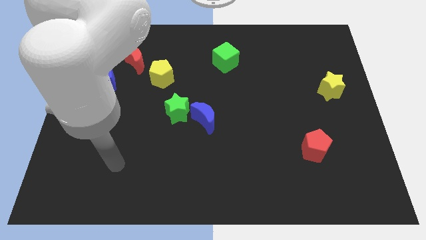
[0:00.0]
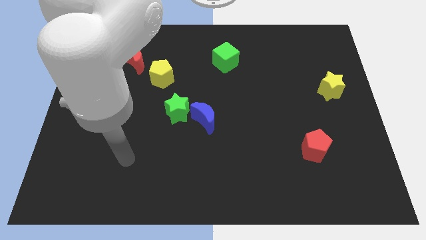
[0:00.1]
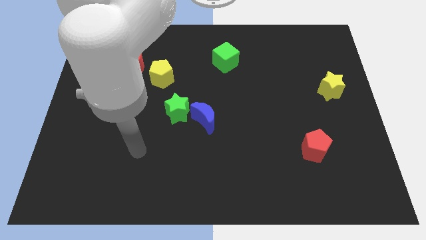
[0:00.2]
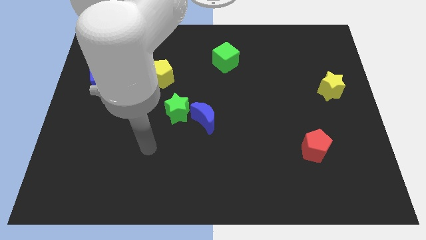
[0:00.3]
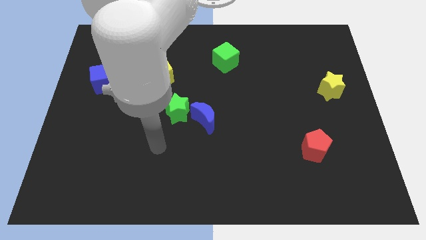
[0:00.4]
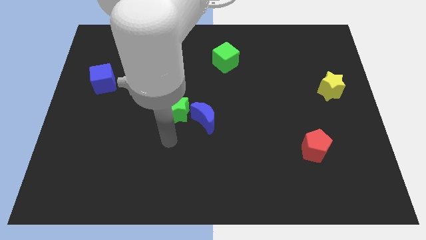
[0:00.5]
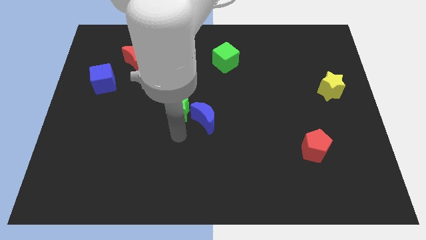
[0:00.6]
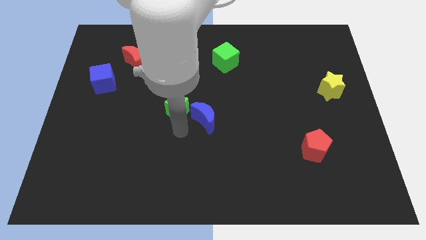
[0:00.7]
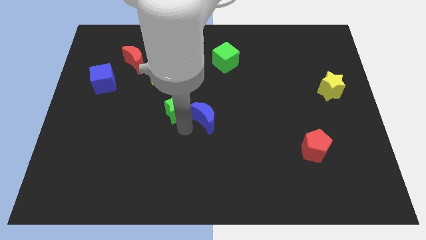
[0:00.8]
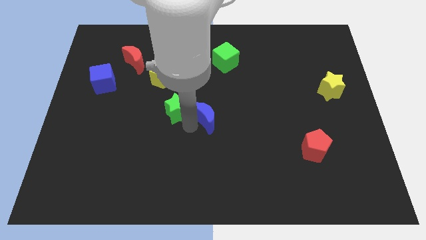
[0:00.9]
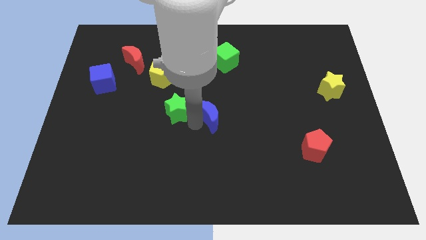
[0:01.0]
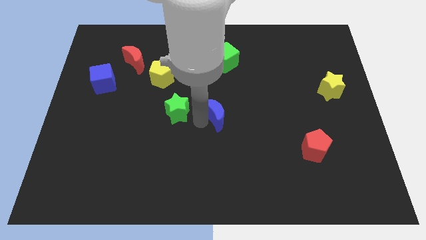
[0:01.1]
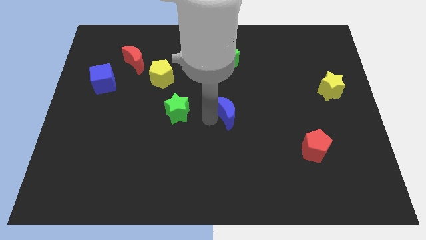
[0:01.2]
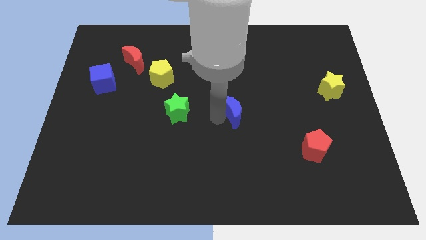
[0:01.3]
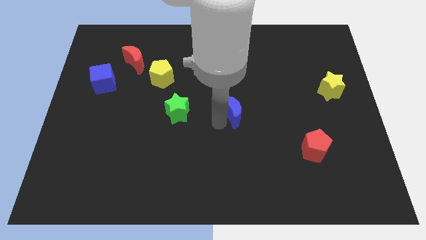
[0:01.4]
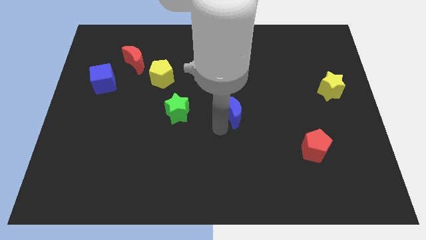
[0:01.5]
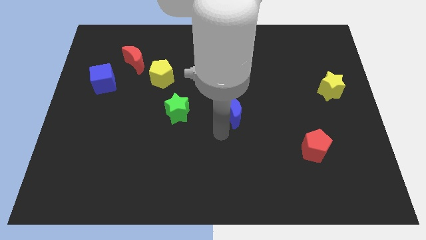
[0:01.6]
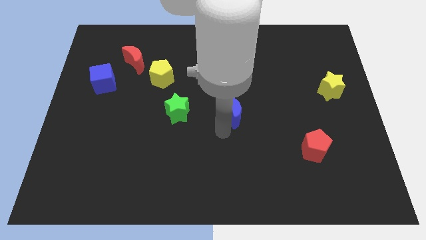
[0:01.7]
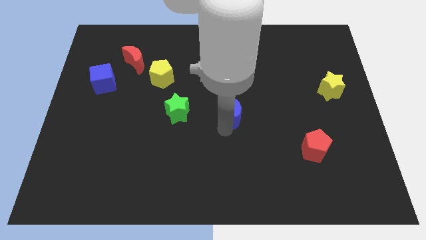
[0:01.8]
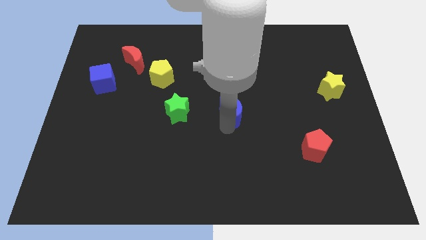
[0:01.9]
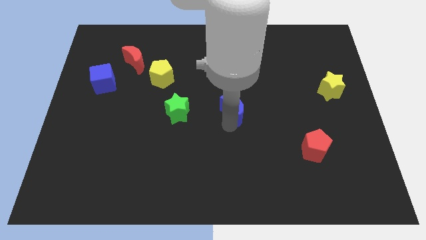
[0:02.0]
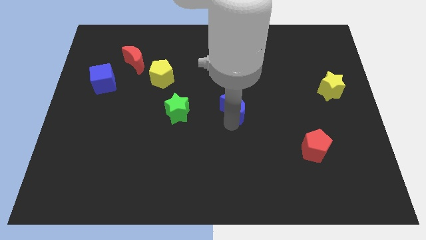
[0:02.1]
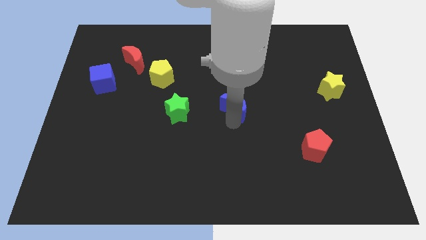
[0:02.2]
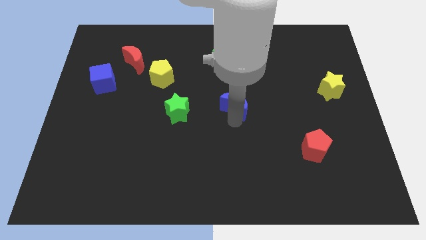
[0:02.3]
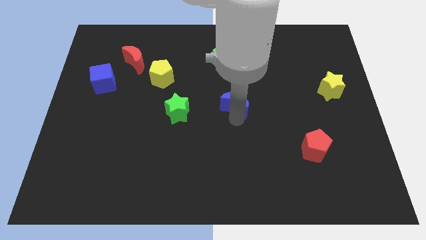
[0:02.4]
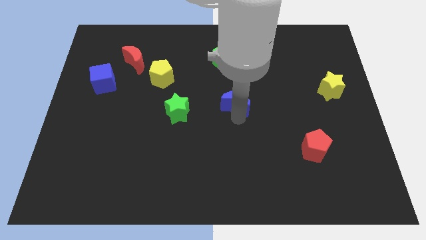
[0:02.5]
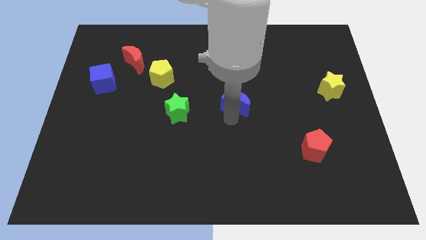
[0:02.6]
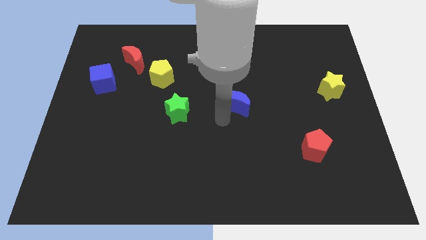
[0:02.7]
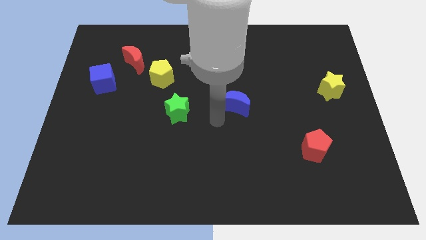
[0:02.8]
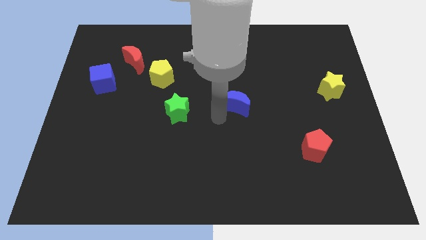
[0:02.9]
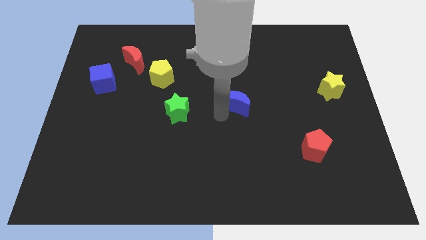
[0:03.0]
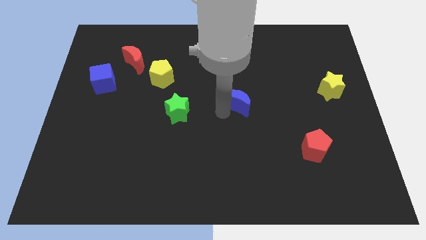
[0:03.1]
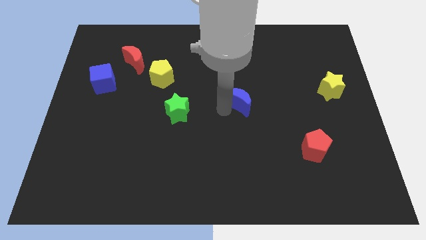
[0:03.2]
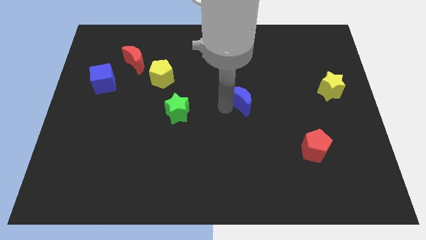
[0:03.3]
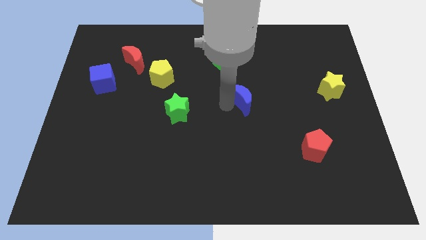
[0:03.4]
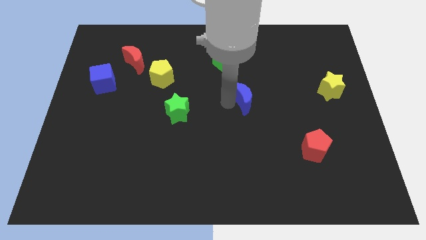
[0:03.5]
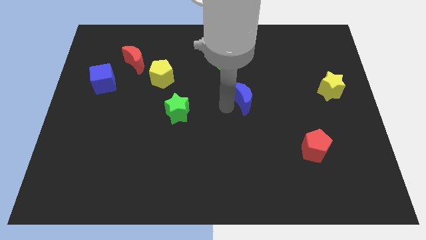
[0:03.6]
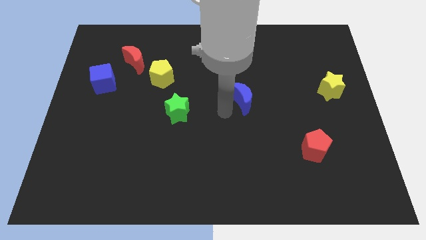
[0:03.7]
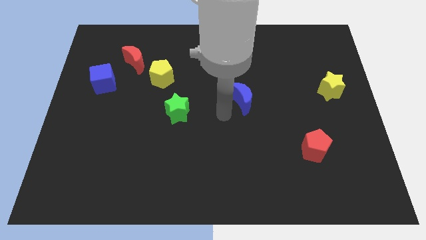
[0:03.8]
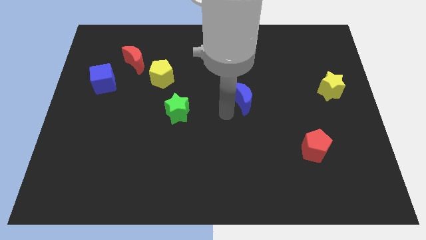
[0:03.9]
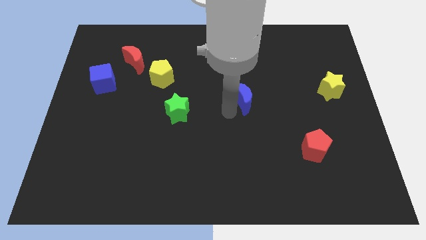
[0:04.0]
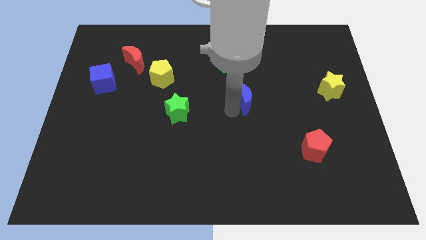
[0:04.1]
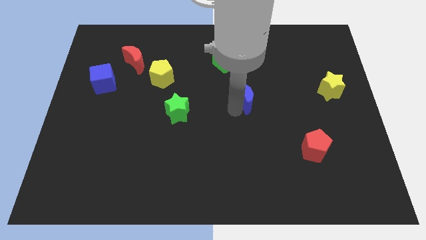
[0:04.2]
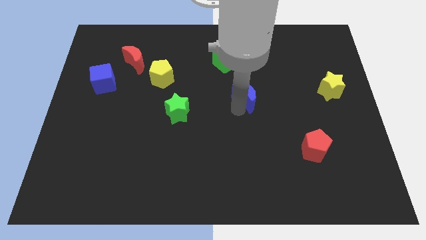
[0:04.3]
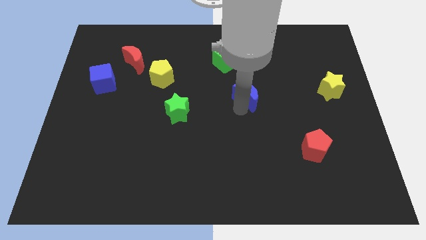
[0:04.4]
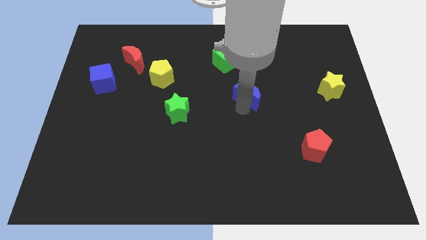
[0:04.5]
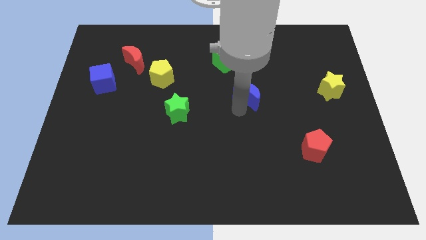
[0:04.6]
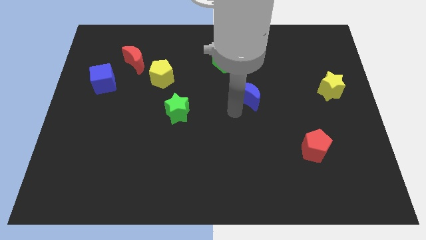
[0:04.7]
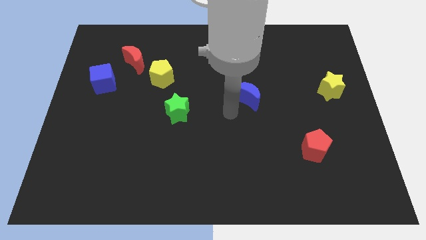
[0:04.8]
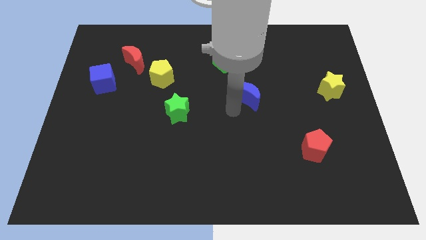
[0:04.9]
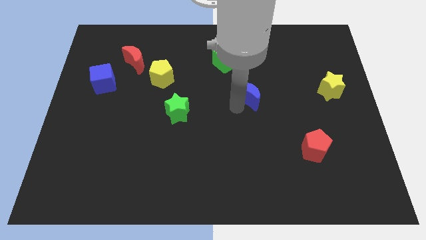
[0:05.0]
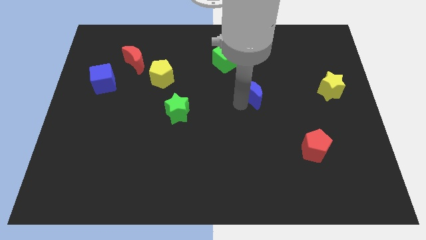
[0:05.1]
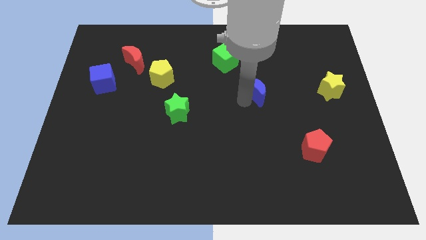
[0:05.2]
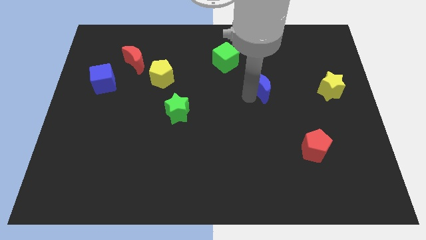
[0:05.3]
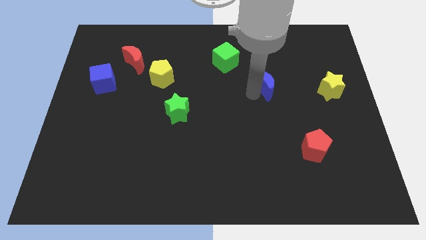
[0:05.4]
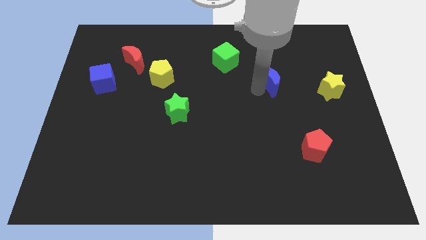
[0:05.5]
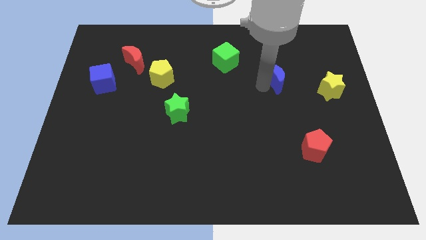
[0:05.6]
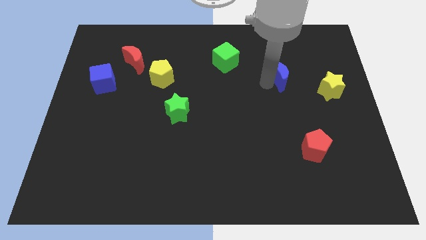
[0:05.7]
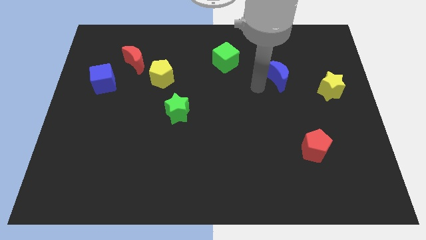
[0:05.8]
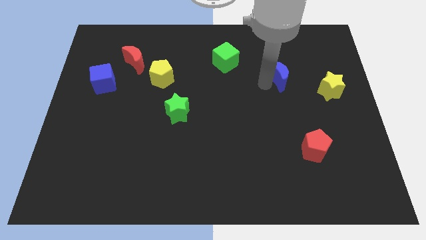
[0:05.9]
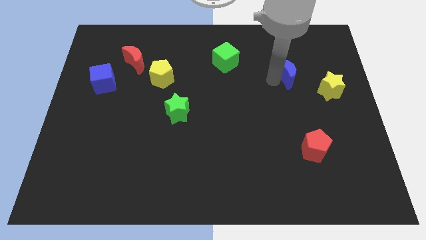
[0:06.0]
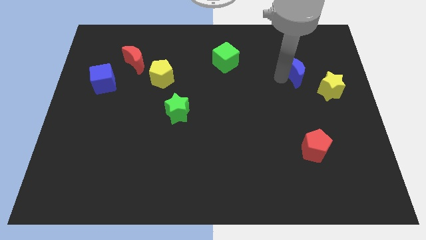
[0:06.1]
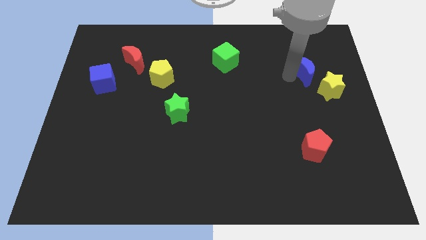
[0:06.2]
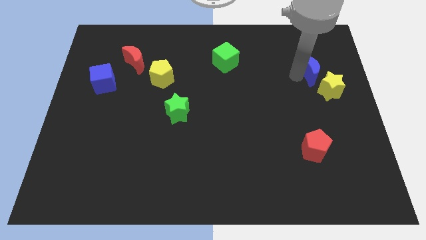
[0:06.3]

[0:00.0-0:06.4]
put the blue moon to the top side of the yellow star

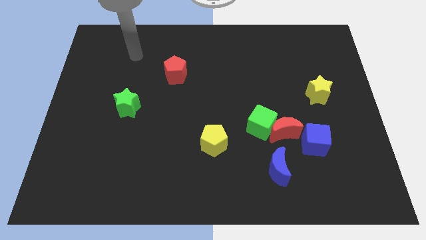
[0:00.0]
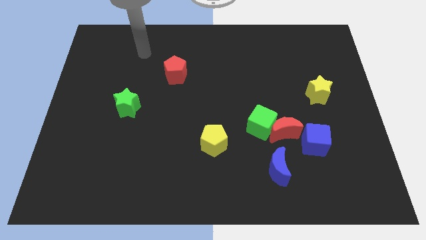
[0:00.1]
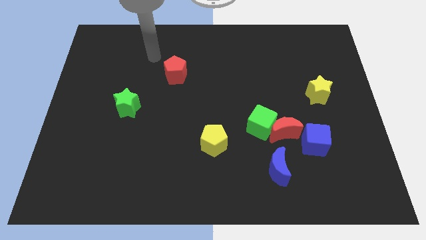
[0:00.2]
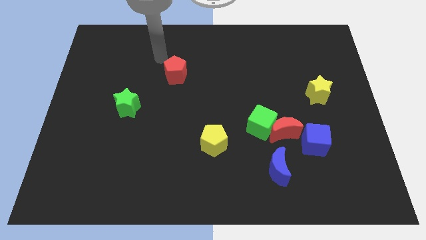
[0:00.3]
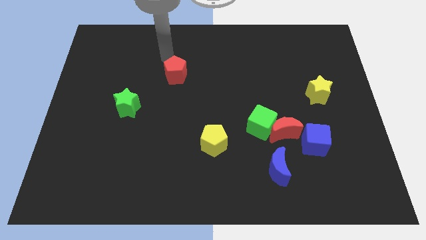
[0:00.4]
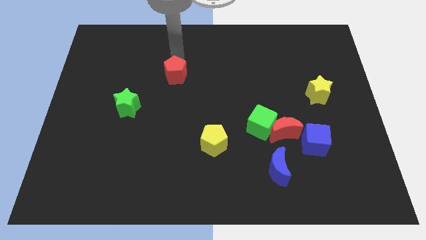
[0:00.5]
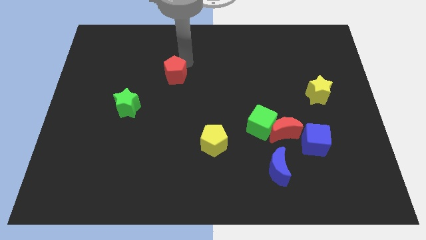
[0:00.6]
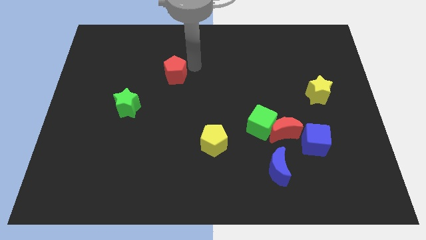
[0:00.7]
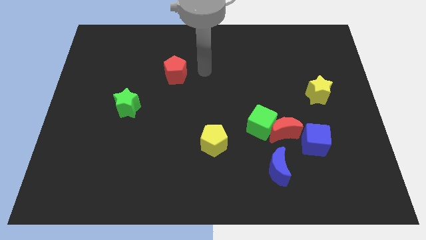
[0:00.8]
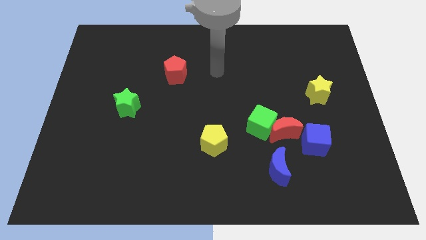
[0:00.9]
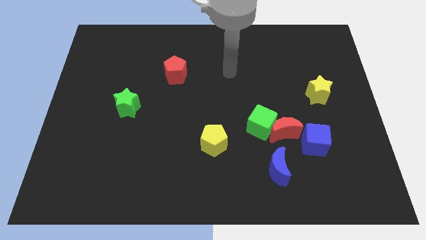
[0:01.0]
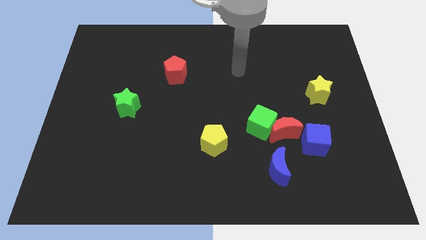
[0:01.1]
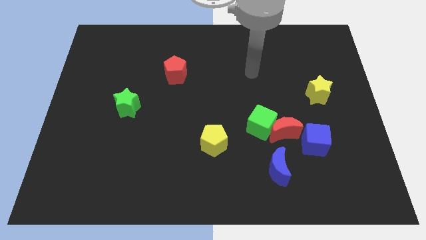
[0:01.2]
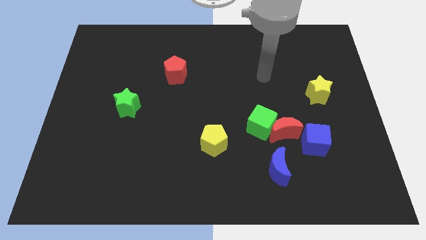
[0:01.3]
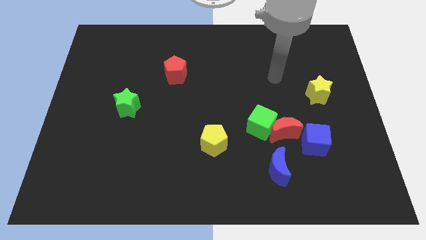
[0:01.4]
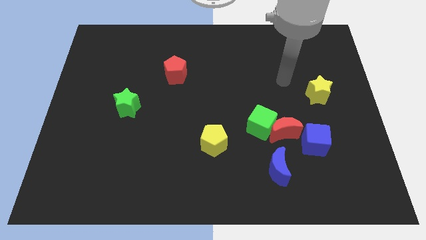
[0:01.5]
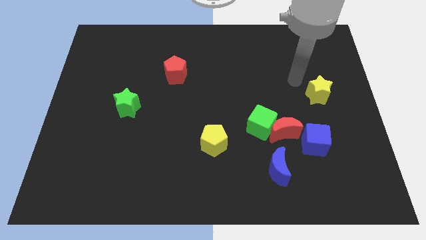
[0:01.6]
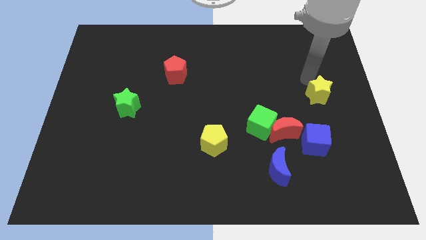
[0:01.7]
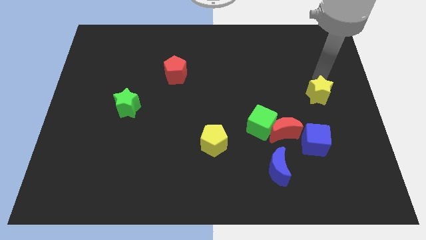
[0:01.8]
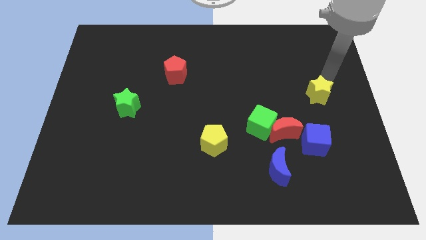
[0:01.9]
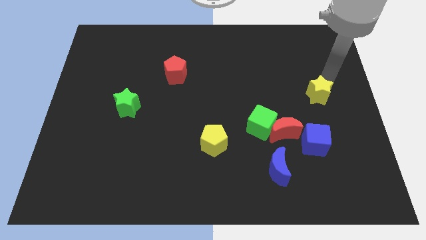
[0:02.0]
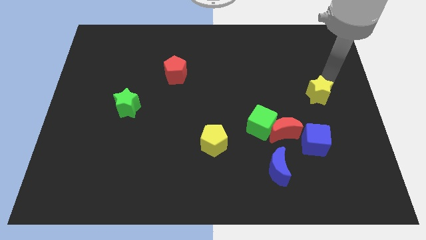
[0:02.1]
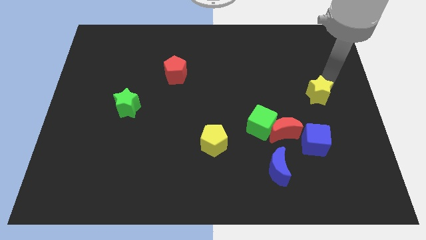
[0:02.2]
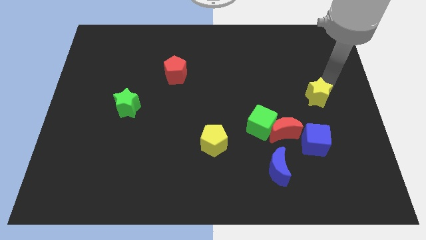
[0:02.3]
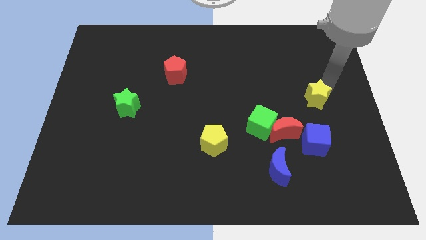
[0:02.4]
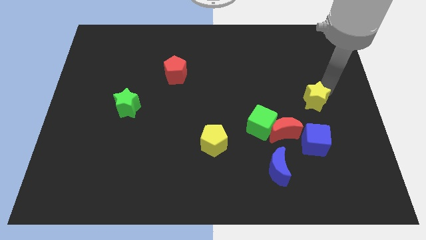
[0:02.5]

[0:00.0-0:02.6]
move the yellow star diagonally up and to the right of the red moon
